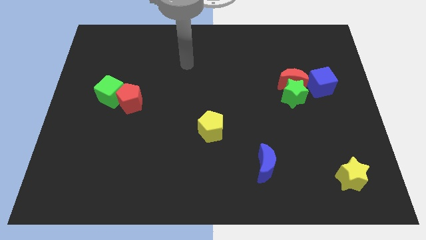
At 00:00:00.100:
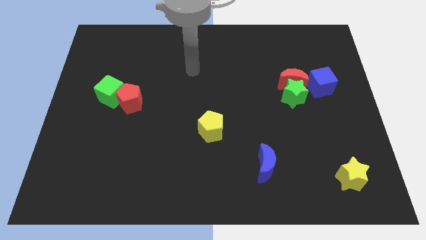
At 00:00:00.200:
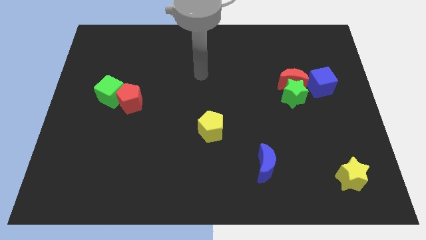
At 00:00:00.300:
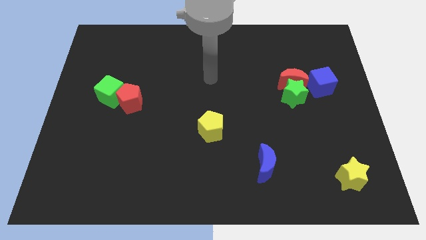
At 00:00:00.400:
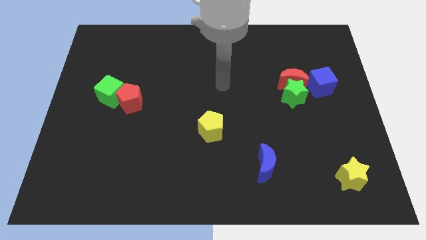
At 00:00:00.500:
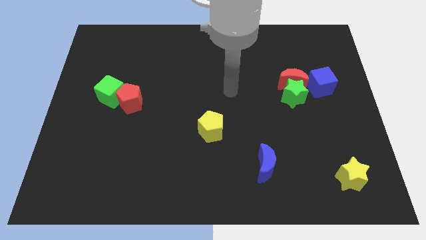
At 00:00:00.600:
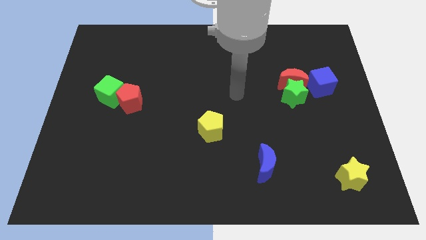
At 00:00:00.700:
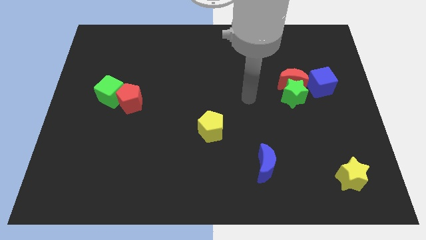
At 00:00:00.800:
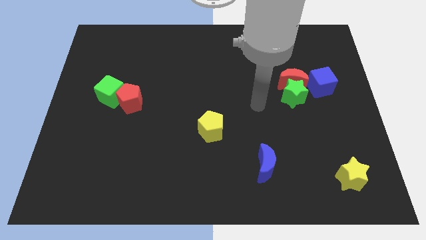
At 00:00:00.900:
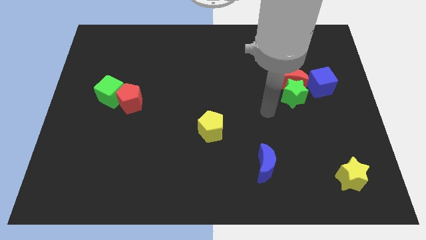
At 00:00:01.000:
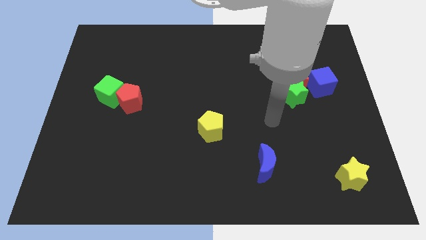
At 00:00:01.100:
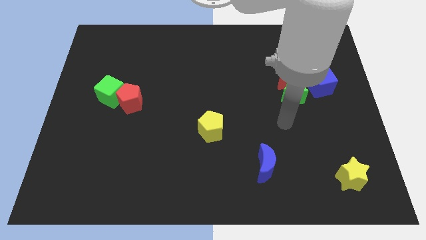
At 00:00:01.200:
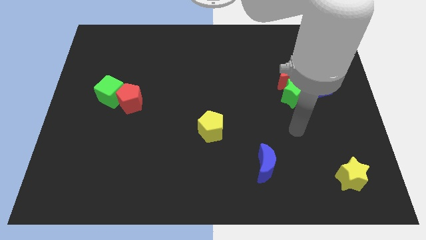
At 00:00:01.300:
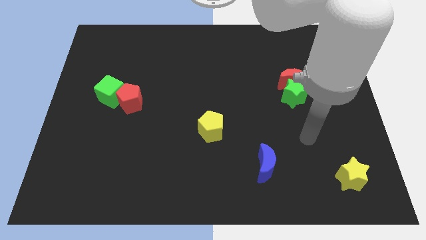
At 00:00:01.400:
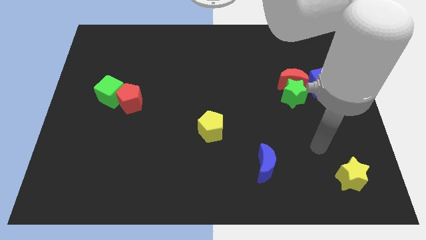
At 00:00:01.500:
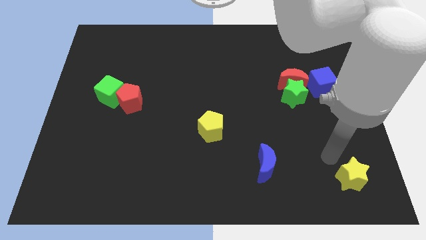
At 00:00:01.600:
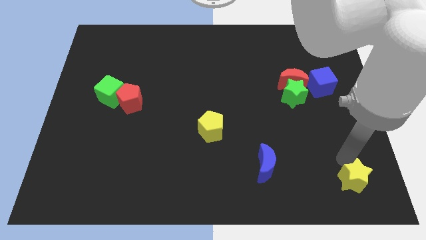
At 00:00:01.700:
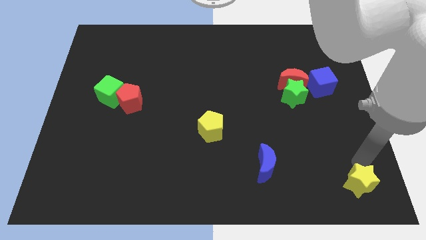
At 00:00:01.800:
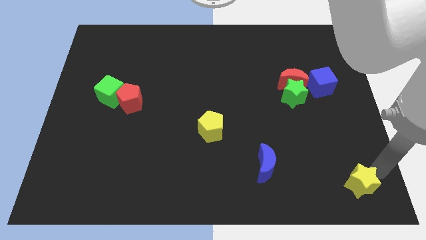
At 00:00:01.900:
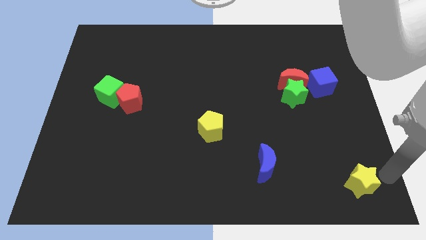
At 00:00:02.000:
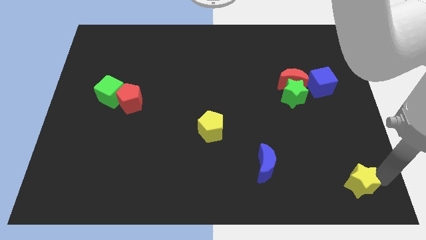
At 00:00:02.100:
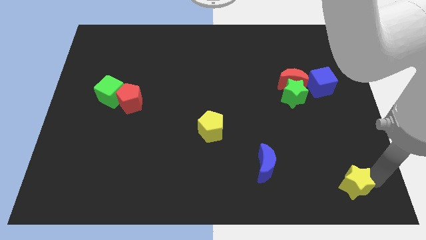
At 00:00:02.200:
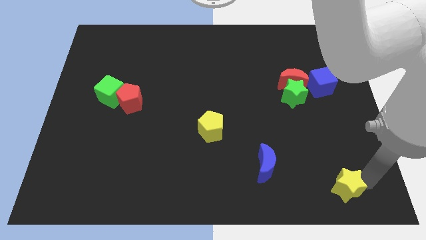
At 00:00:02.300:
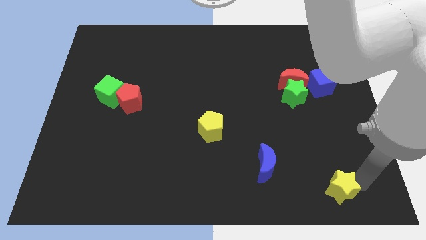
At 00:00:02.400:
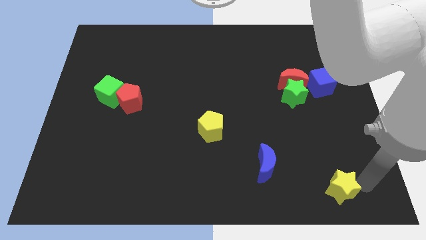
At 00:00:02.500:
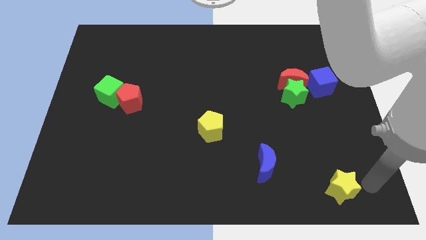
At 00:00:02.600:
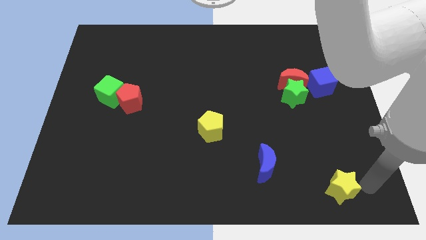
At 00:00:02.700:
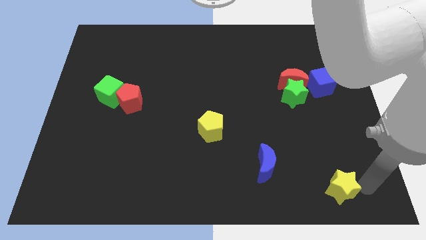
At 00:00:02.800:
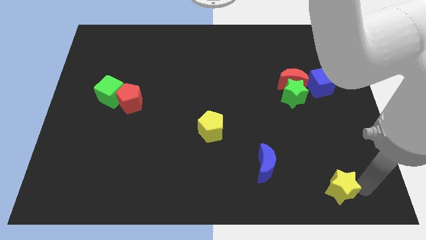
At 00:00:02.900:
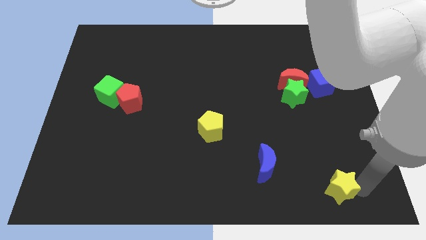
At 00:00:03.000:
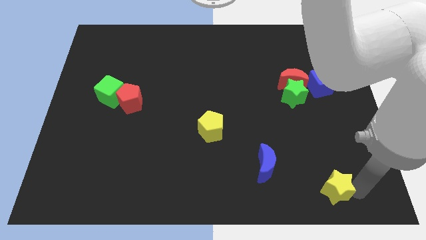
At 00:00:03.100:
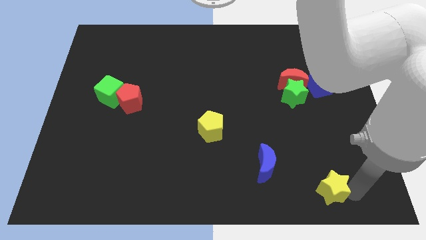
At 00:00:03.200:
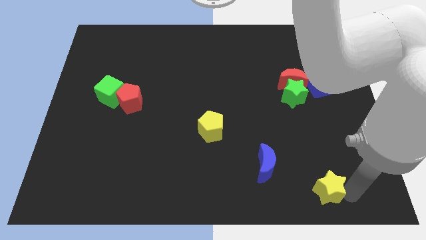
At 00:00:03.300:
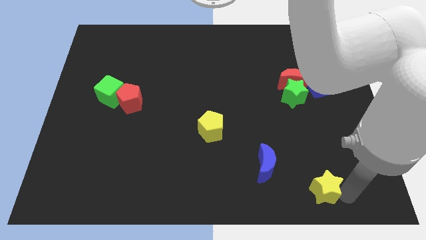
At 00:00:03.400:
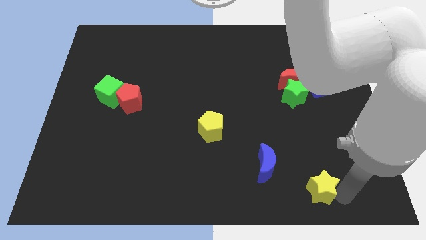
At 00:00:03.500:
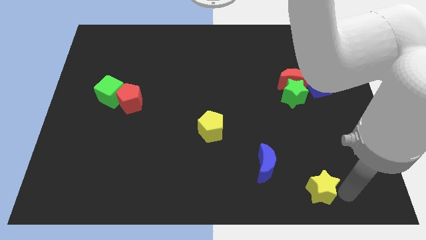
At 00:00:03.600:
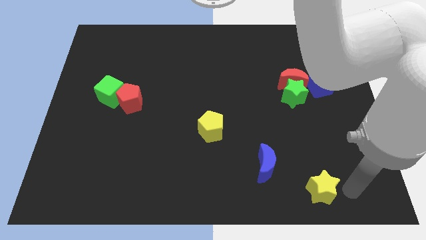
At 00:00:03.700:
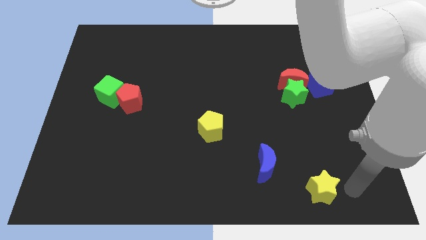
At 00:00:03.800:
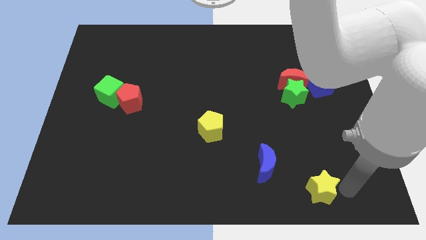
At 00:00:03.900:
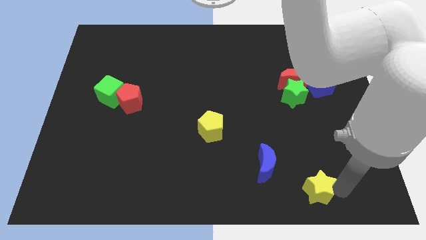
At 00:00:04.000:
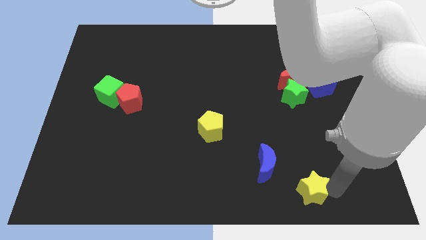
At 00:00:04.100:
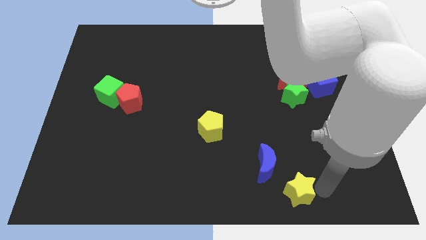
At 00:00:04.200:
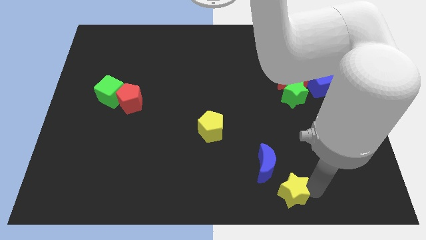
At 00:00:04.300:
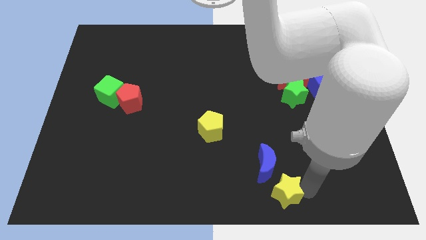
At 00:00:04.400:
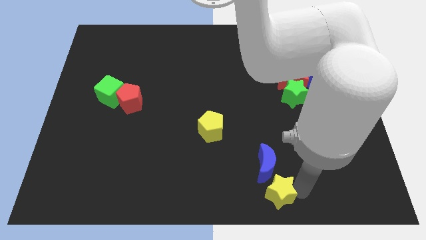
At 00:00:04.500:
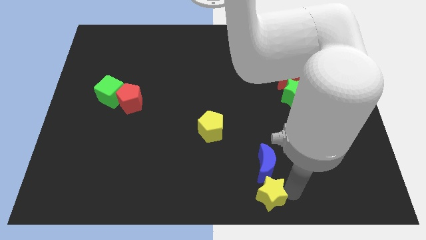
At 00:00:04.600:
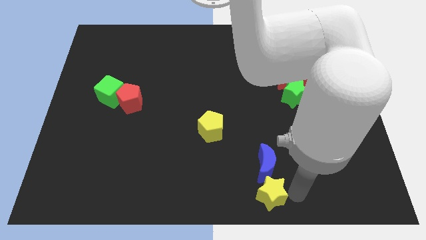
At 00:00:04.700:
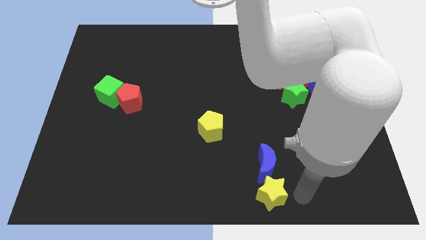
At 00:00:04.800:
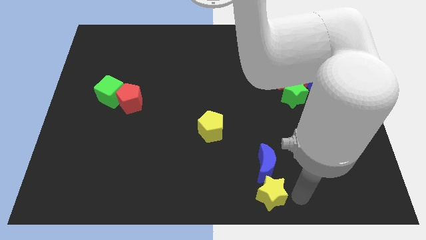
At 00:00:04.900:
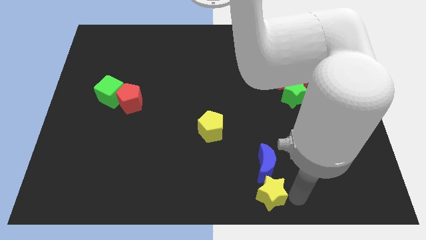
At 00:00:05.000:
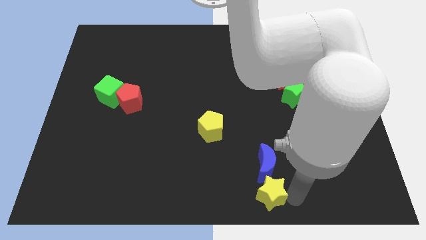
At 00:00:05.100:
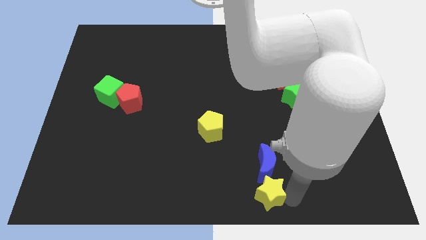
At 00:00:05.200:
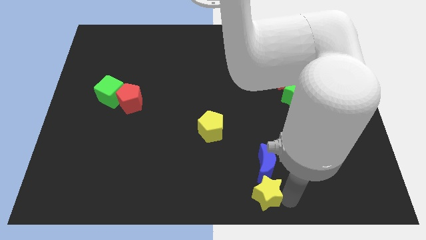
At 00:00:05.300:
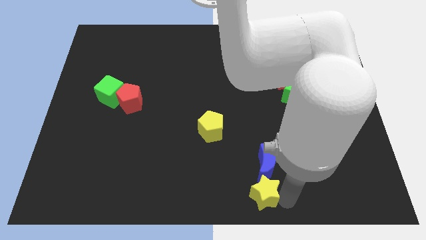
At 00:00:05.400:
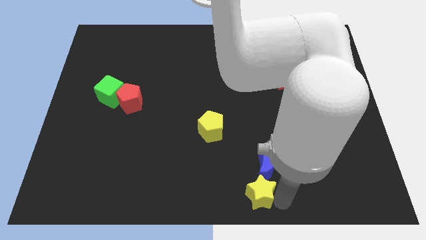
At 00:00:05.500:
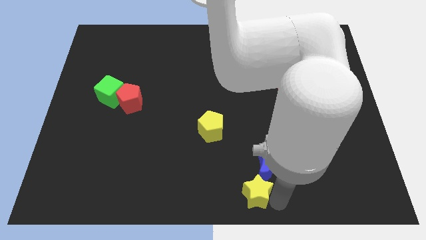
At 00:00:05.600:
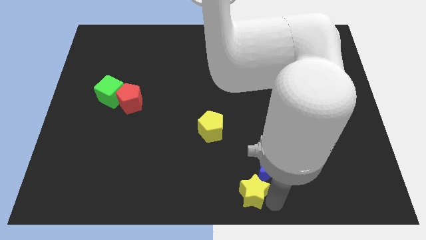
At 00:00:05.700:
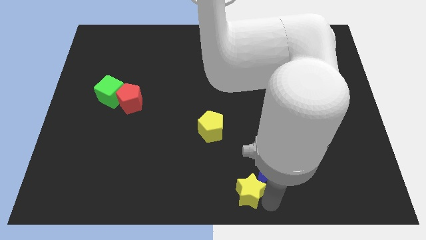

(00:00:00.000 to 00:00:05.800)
push the yellow star to the left

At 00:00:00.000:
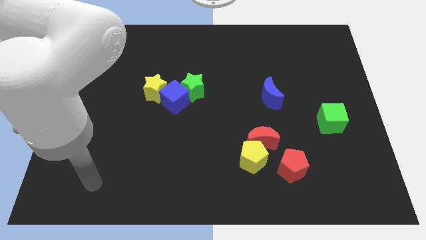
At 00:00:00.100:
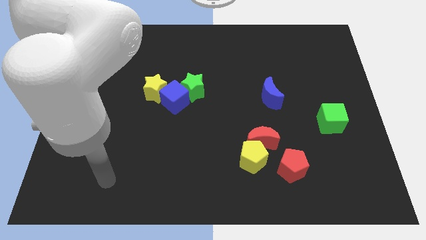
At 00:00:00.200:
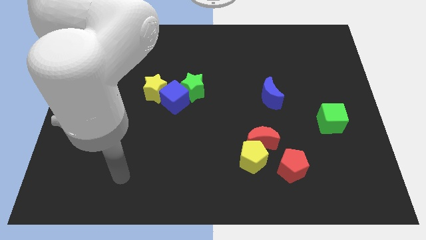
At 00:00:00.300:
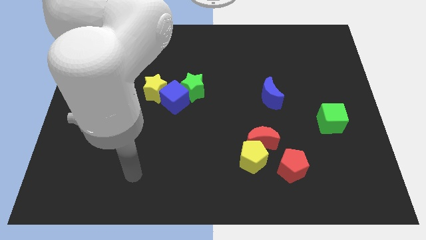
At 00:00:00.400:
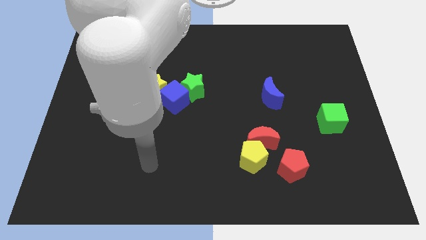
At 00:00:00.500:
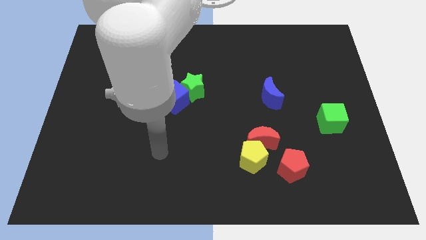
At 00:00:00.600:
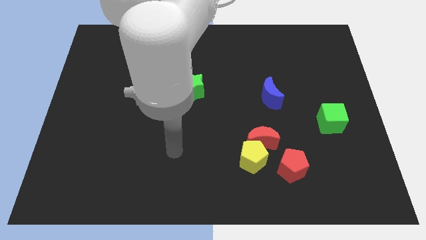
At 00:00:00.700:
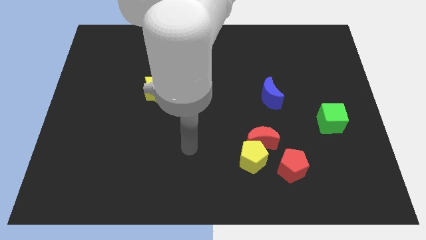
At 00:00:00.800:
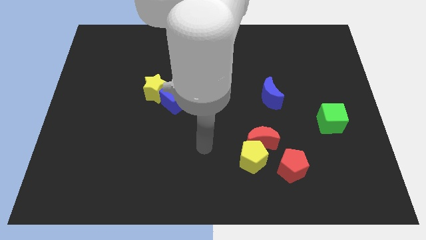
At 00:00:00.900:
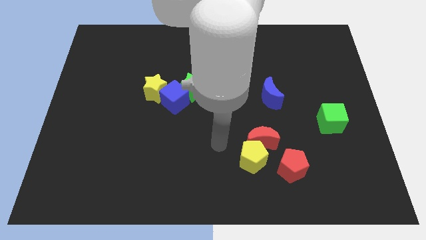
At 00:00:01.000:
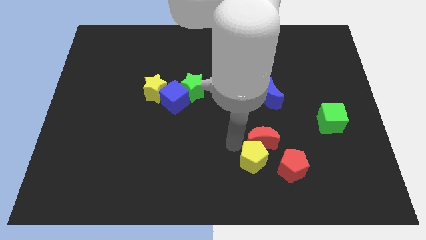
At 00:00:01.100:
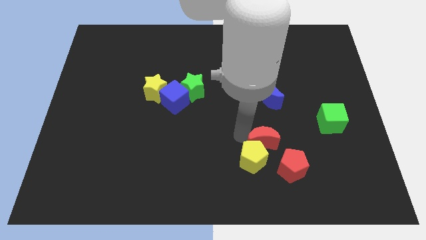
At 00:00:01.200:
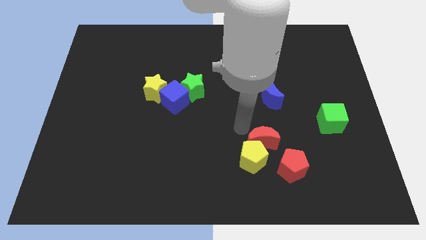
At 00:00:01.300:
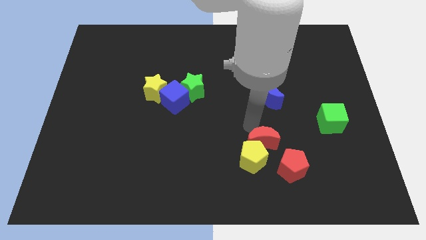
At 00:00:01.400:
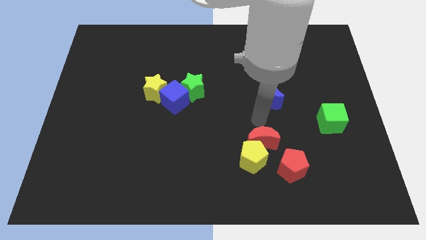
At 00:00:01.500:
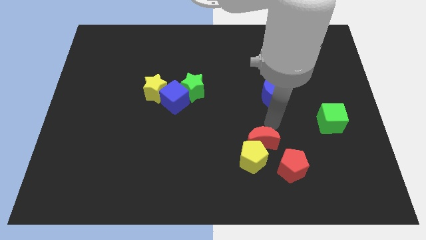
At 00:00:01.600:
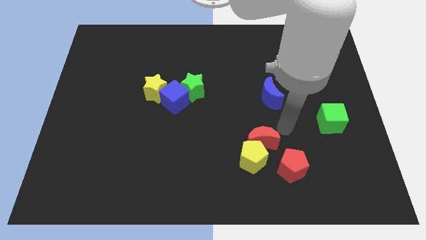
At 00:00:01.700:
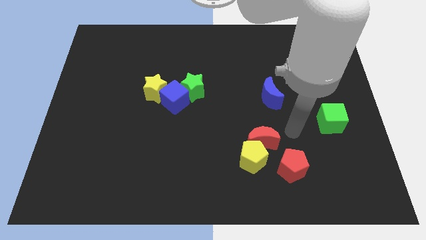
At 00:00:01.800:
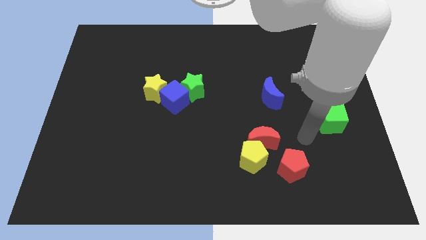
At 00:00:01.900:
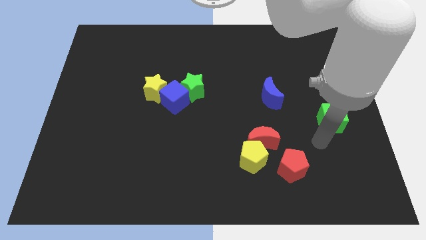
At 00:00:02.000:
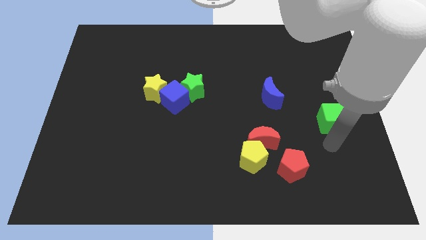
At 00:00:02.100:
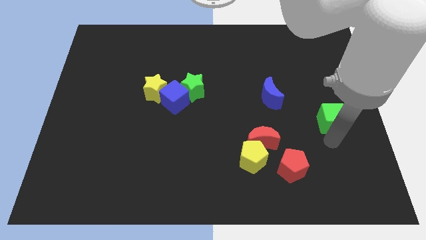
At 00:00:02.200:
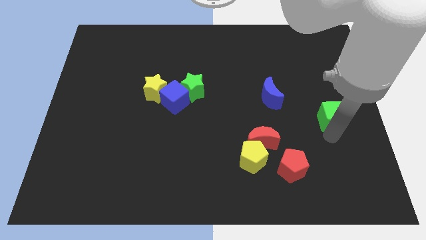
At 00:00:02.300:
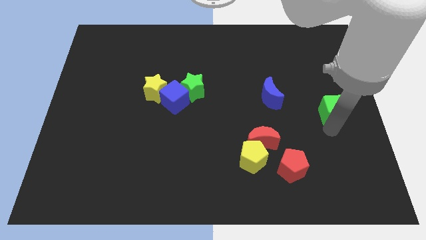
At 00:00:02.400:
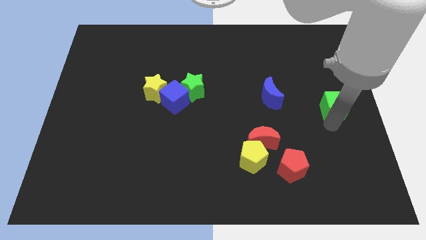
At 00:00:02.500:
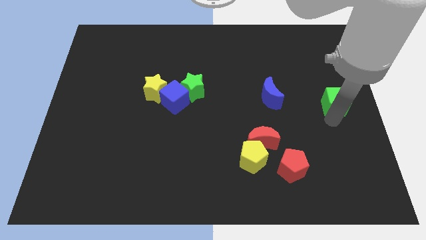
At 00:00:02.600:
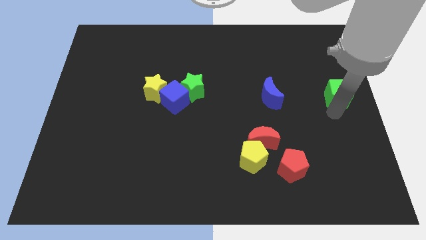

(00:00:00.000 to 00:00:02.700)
slide the green cube upwards slightly
